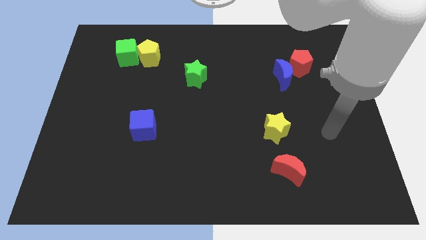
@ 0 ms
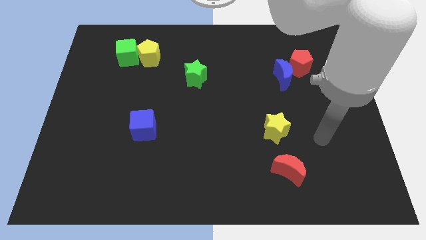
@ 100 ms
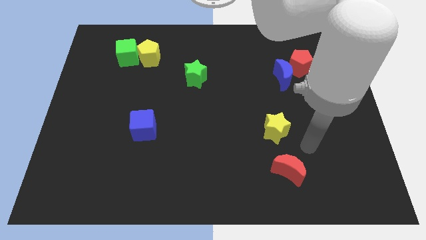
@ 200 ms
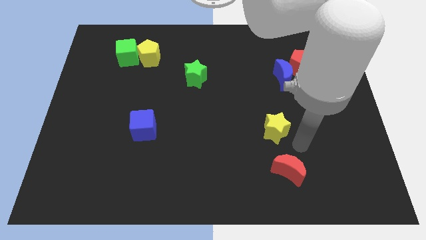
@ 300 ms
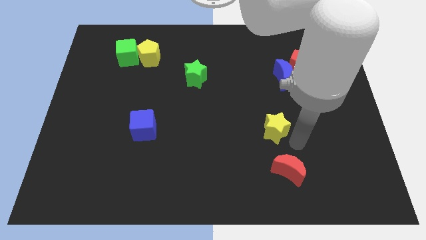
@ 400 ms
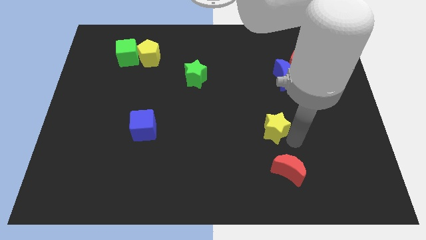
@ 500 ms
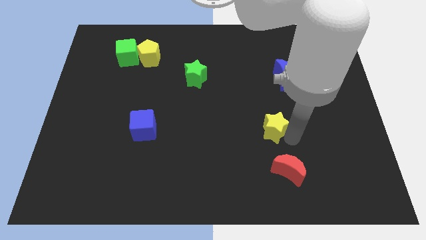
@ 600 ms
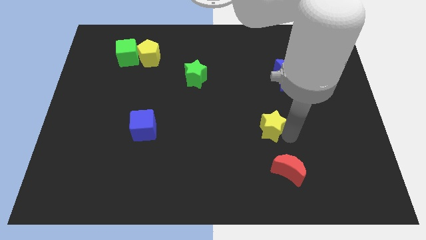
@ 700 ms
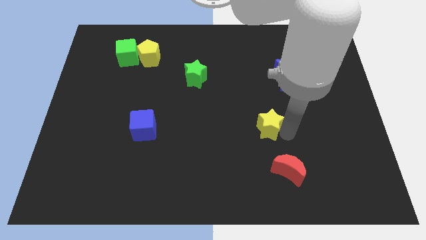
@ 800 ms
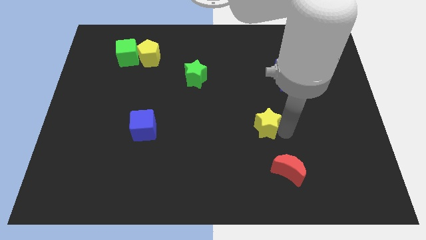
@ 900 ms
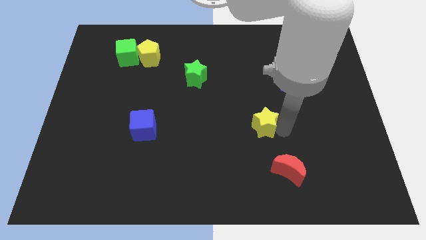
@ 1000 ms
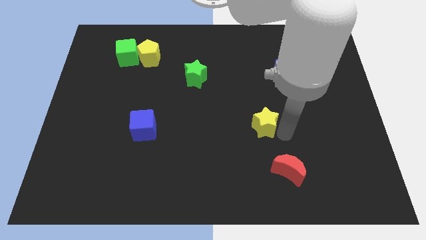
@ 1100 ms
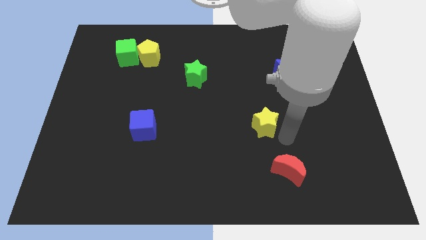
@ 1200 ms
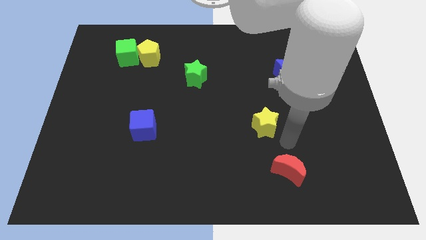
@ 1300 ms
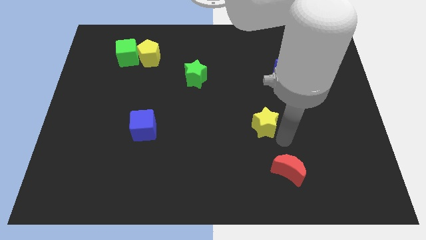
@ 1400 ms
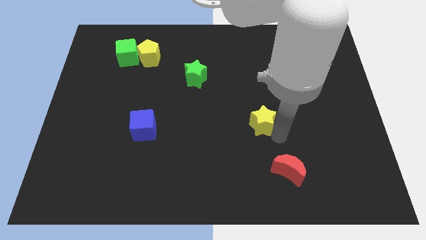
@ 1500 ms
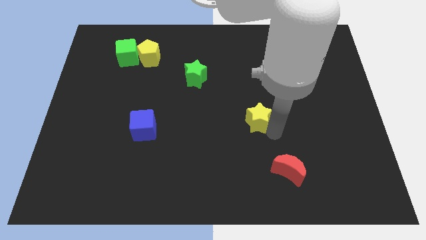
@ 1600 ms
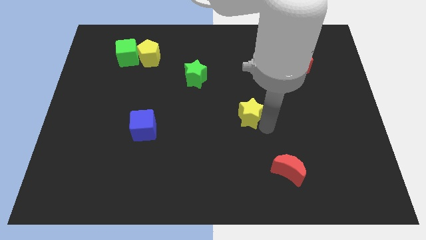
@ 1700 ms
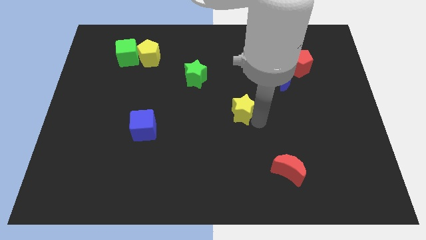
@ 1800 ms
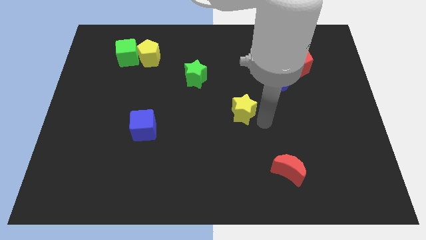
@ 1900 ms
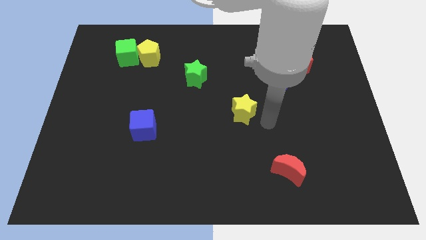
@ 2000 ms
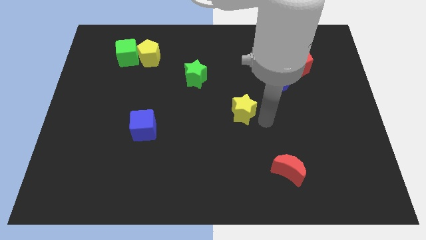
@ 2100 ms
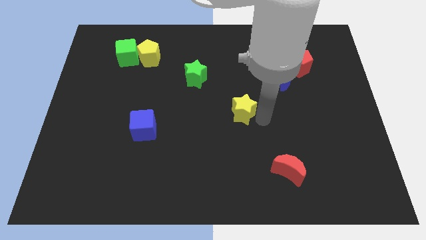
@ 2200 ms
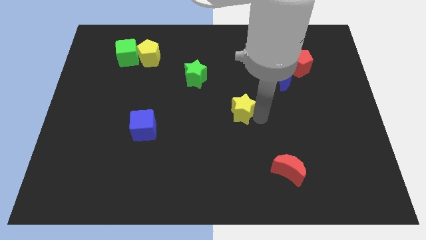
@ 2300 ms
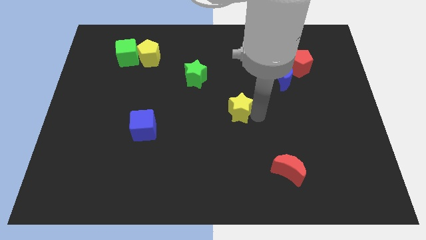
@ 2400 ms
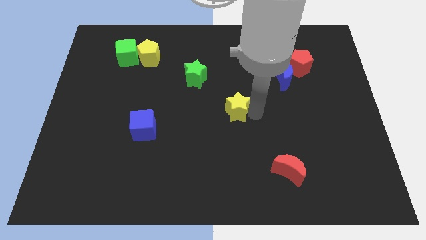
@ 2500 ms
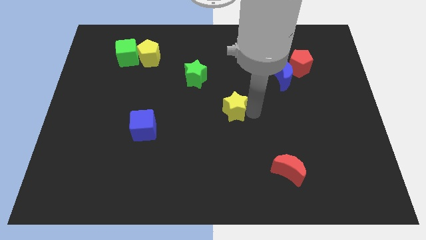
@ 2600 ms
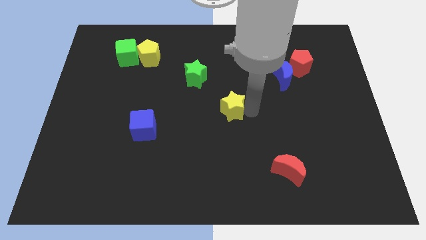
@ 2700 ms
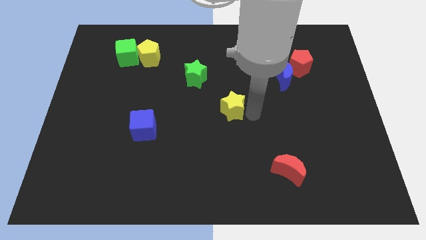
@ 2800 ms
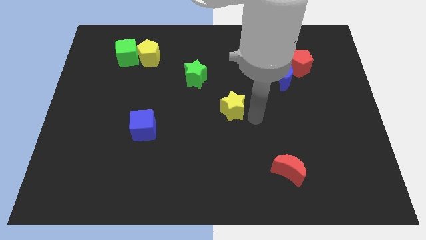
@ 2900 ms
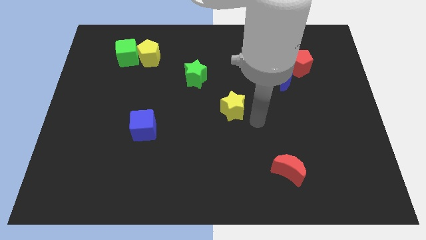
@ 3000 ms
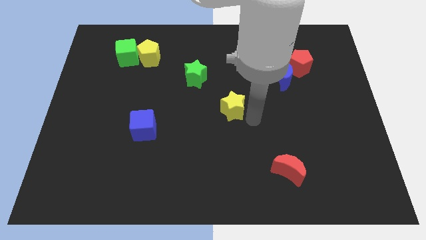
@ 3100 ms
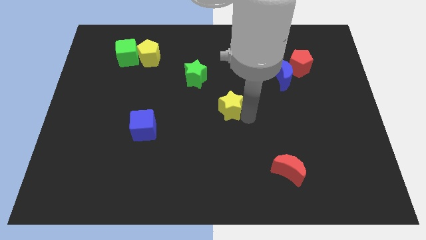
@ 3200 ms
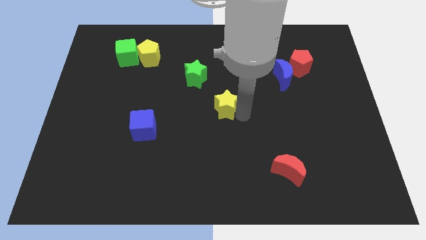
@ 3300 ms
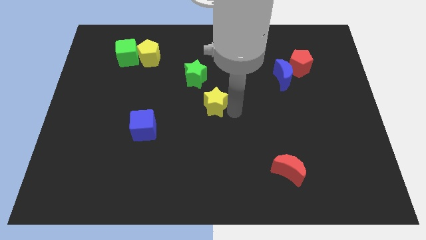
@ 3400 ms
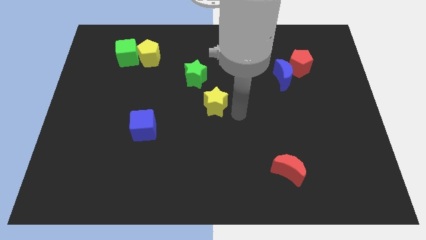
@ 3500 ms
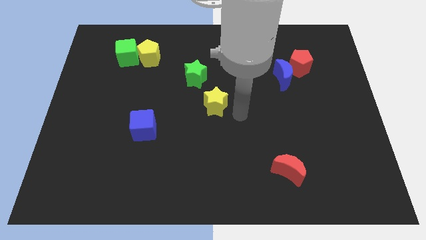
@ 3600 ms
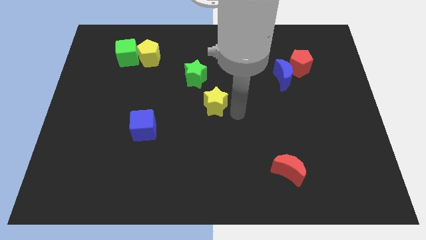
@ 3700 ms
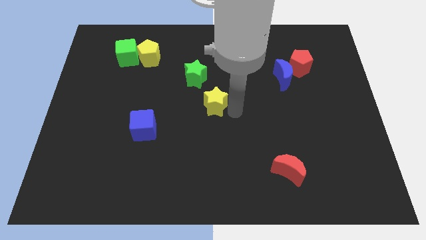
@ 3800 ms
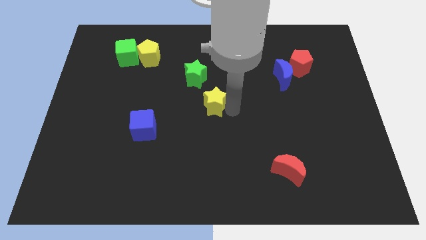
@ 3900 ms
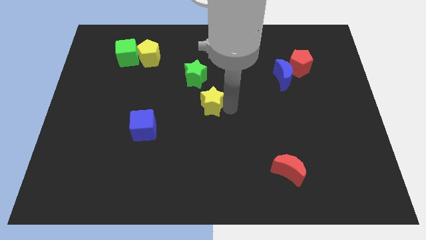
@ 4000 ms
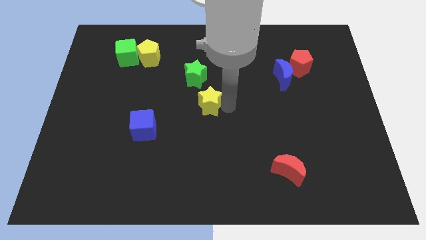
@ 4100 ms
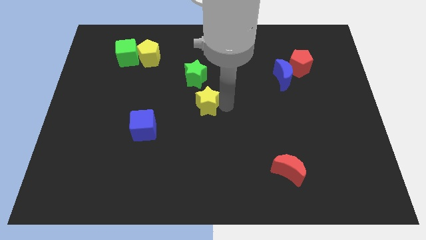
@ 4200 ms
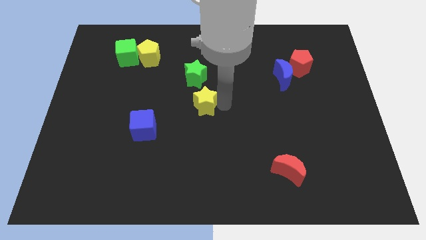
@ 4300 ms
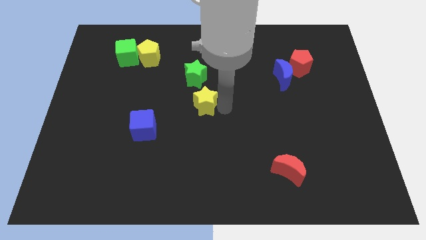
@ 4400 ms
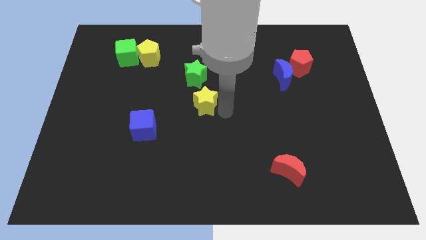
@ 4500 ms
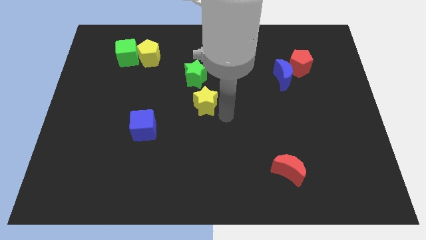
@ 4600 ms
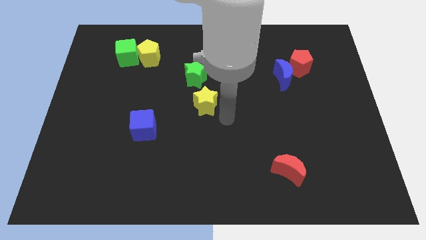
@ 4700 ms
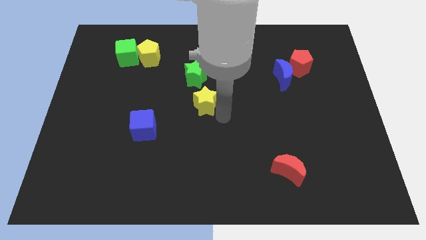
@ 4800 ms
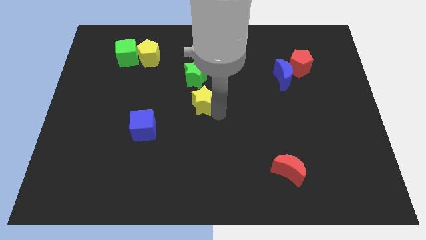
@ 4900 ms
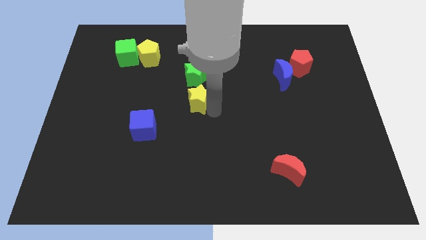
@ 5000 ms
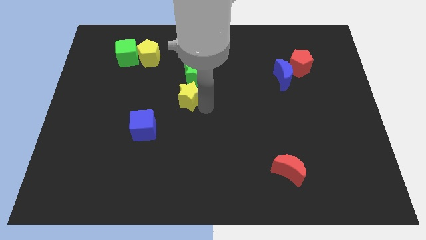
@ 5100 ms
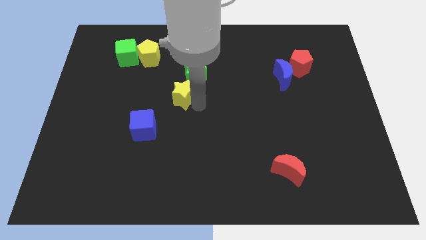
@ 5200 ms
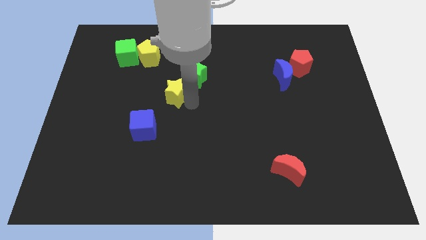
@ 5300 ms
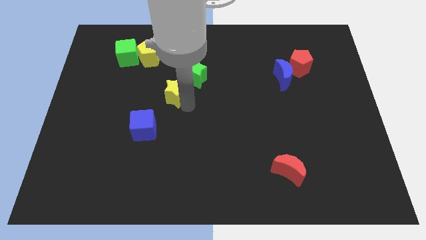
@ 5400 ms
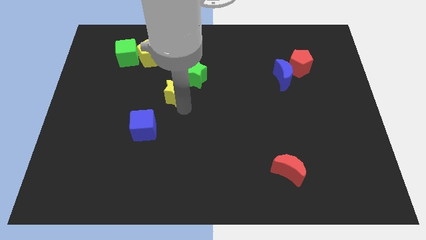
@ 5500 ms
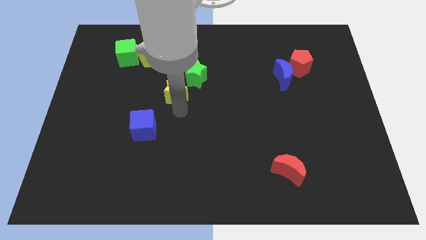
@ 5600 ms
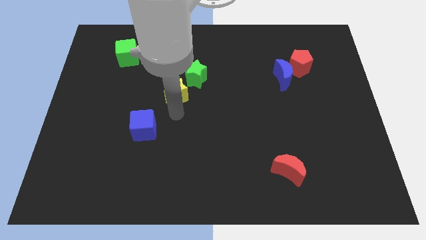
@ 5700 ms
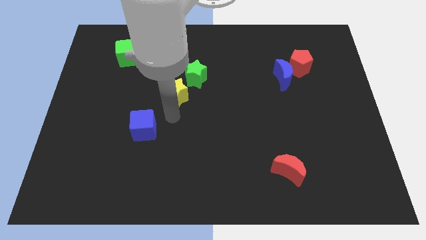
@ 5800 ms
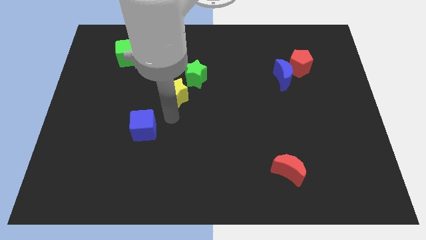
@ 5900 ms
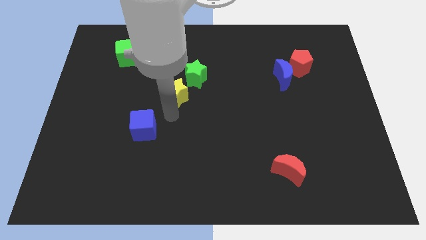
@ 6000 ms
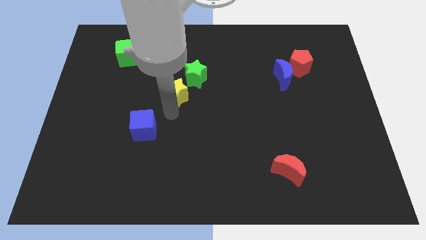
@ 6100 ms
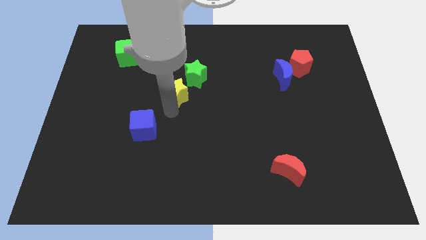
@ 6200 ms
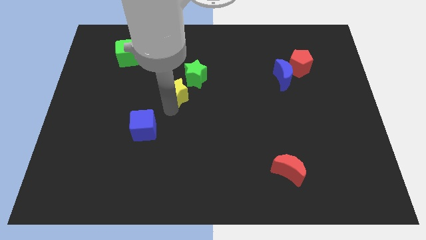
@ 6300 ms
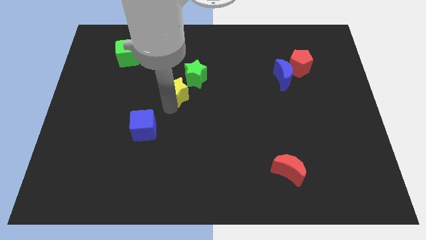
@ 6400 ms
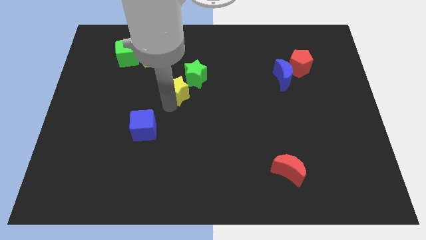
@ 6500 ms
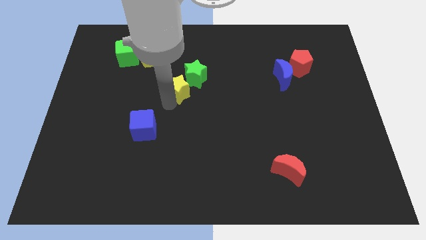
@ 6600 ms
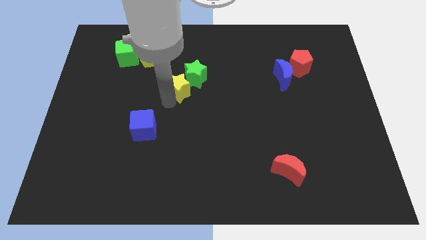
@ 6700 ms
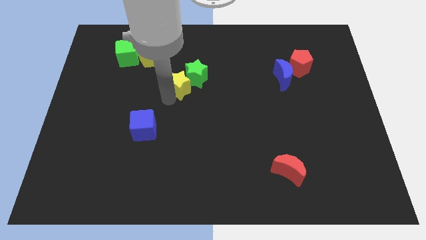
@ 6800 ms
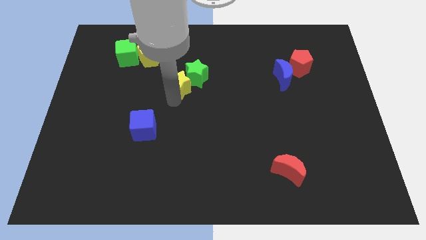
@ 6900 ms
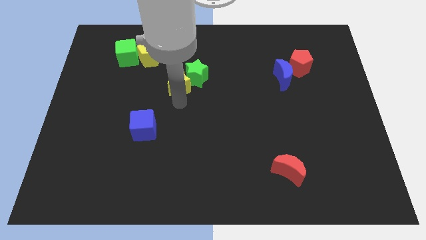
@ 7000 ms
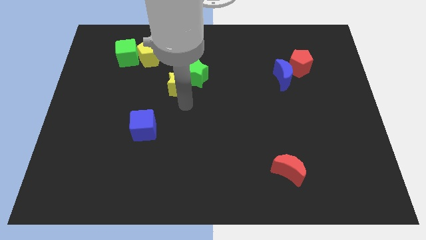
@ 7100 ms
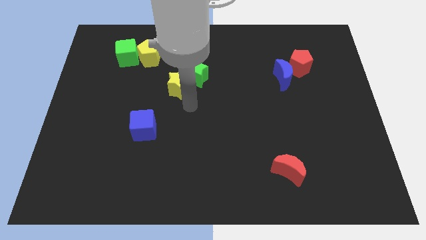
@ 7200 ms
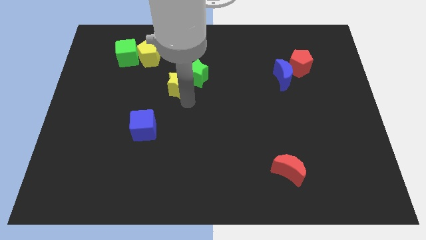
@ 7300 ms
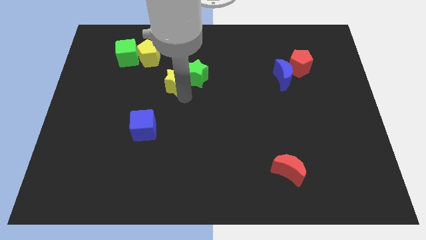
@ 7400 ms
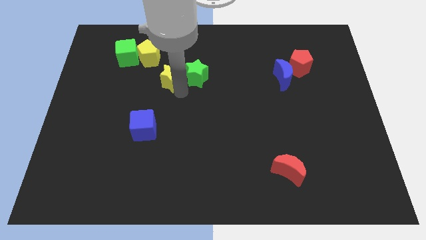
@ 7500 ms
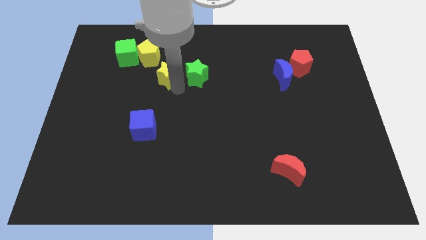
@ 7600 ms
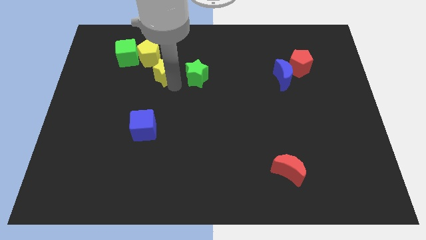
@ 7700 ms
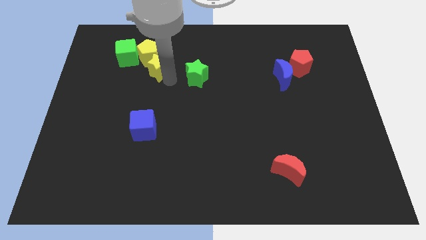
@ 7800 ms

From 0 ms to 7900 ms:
push the yellow star next to the yellow pentagon
